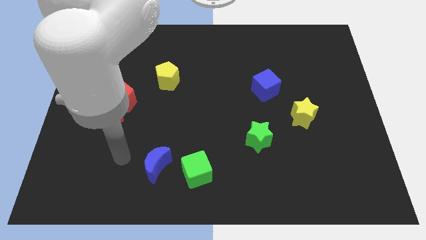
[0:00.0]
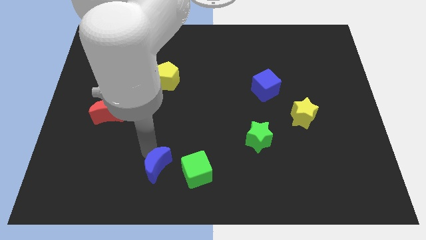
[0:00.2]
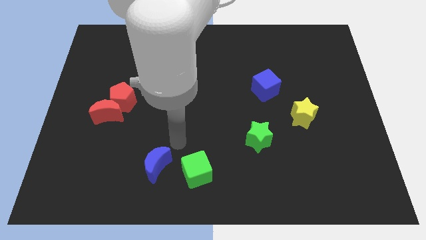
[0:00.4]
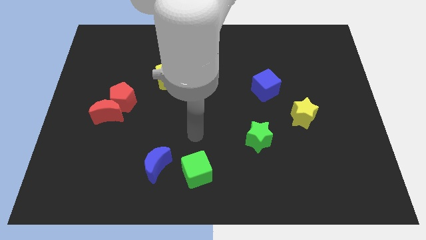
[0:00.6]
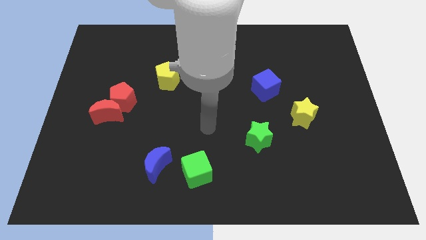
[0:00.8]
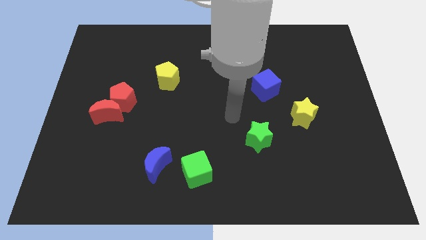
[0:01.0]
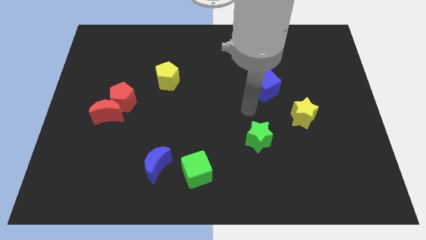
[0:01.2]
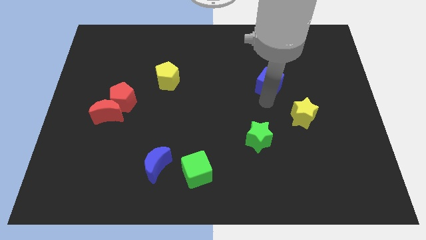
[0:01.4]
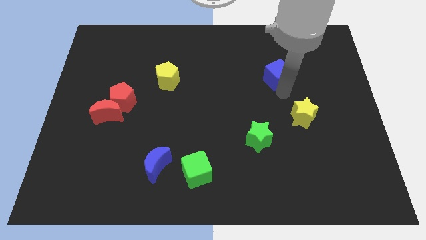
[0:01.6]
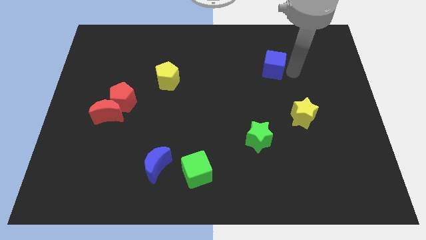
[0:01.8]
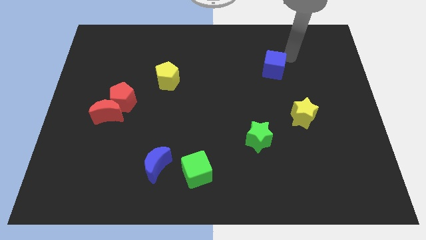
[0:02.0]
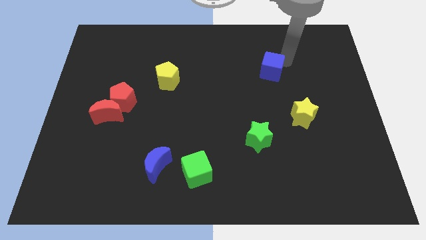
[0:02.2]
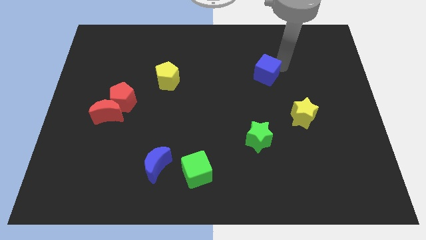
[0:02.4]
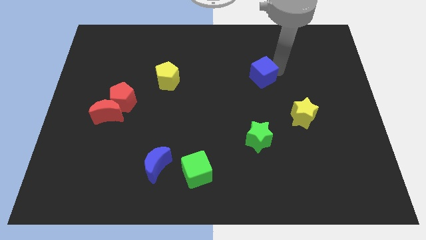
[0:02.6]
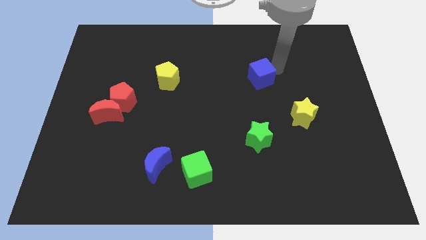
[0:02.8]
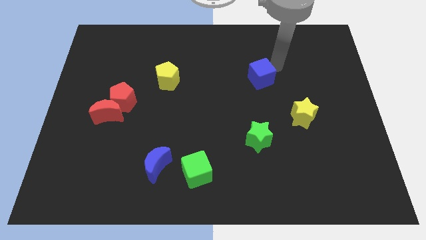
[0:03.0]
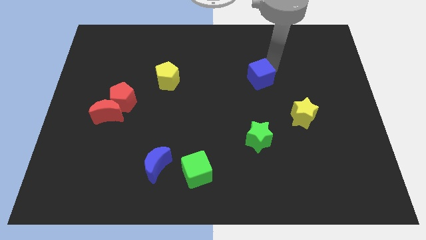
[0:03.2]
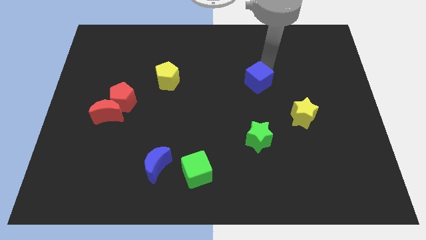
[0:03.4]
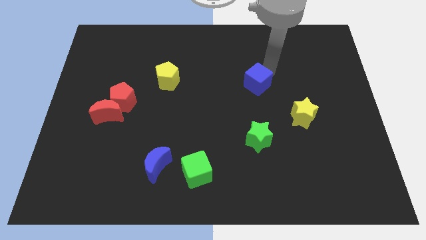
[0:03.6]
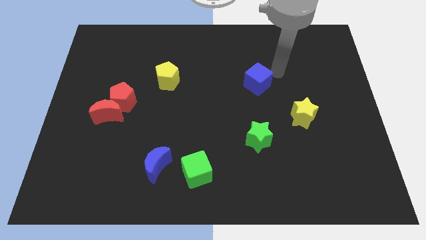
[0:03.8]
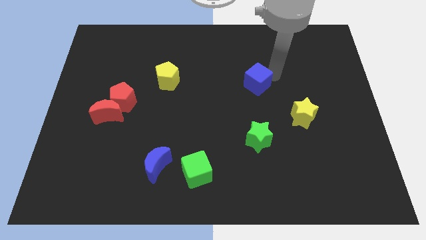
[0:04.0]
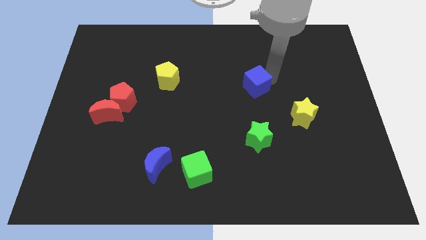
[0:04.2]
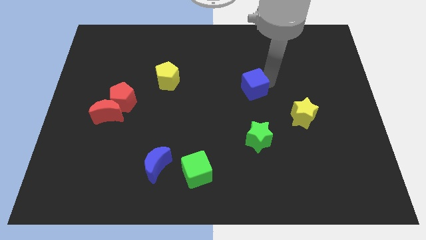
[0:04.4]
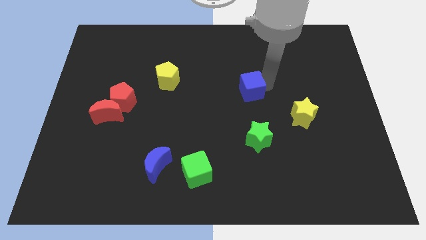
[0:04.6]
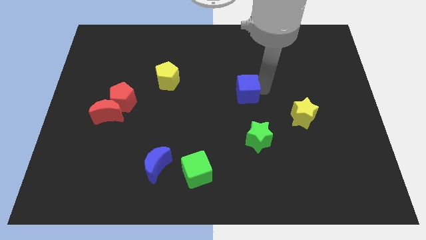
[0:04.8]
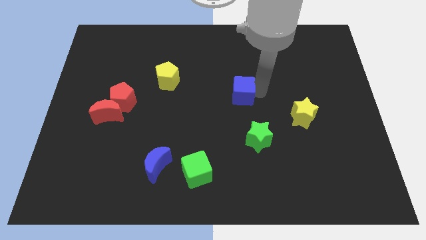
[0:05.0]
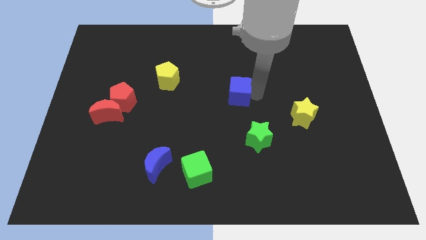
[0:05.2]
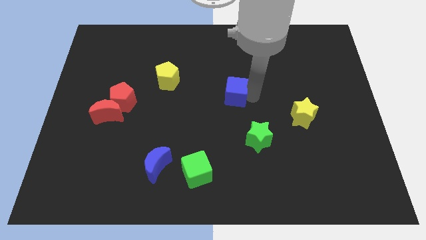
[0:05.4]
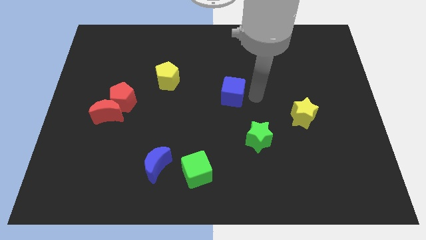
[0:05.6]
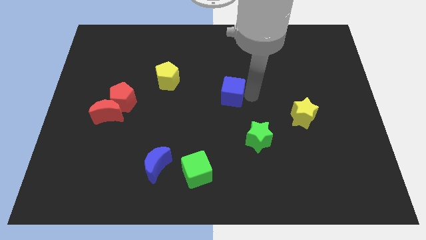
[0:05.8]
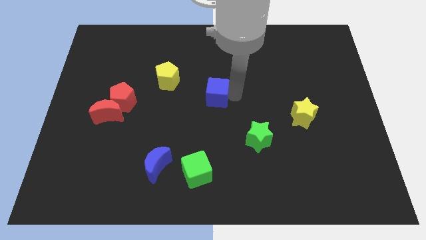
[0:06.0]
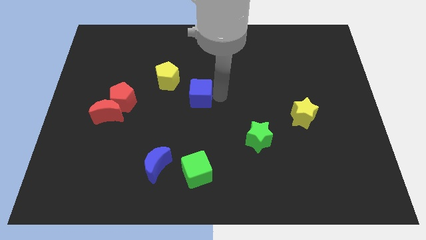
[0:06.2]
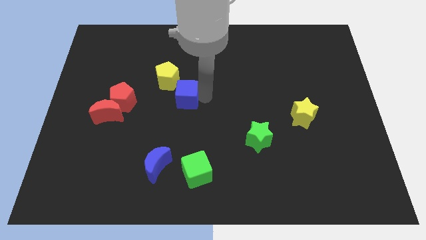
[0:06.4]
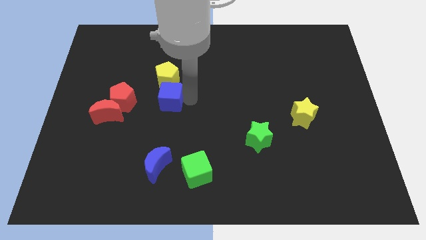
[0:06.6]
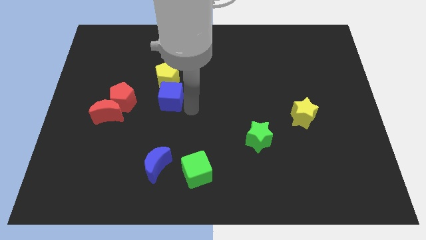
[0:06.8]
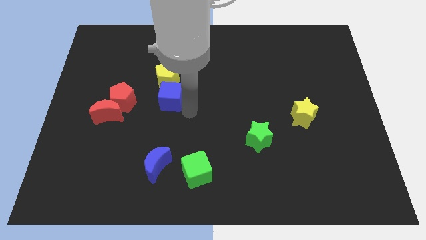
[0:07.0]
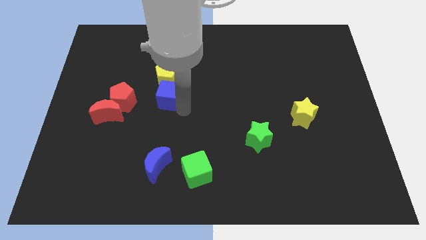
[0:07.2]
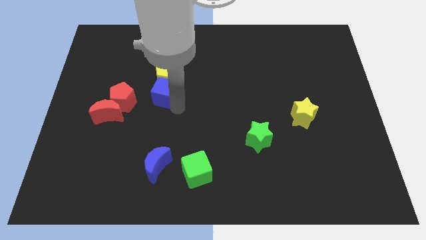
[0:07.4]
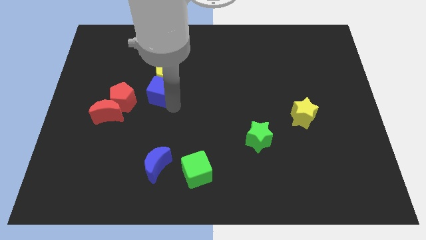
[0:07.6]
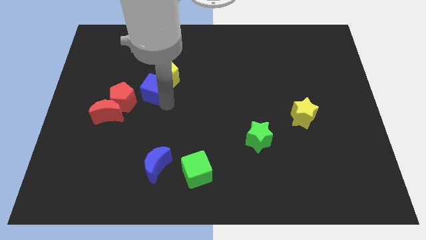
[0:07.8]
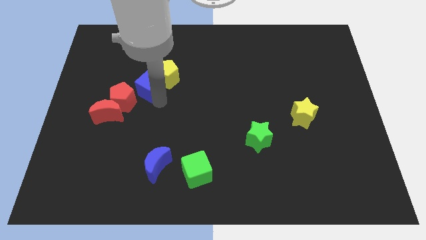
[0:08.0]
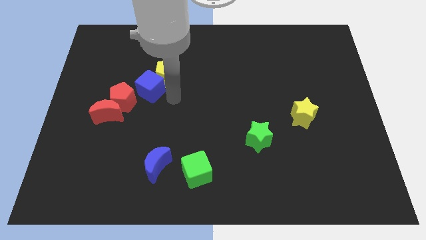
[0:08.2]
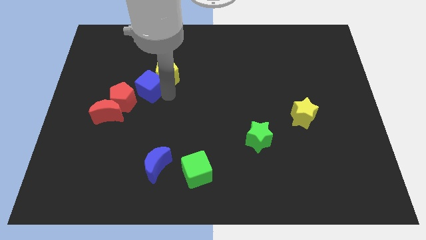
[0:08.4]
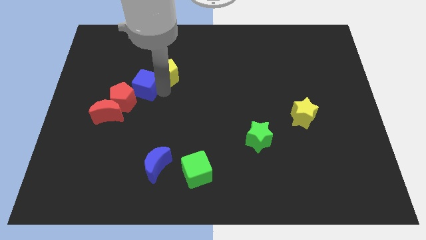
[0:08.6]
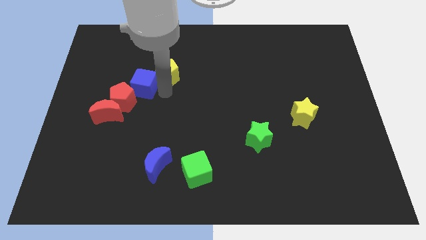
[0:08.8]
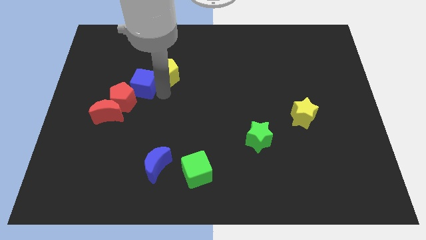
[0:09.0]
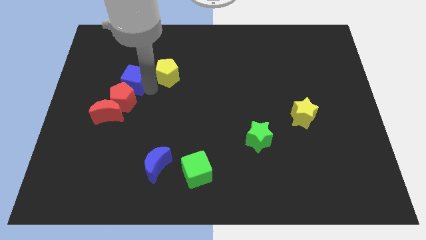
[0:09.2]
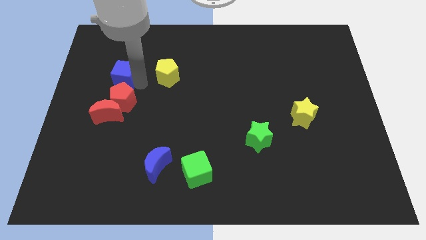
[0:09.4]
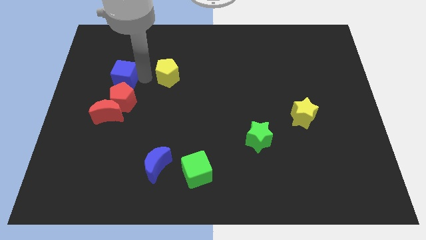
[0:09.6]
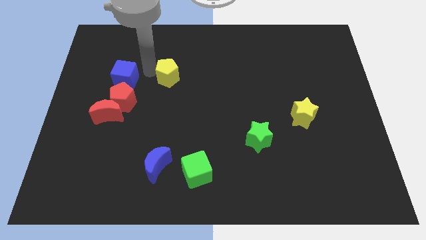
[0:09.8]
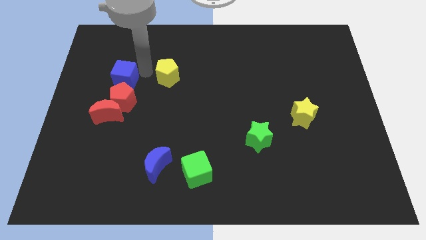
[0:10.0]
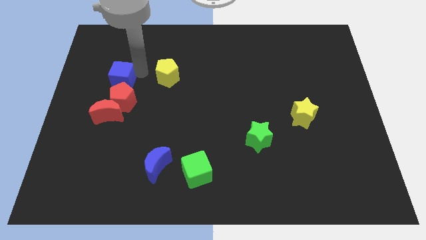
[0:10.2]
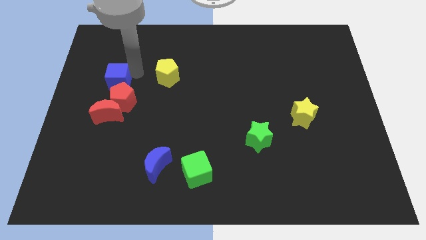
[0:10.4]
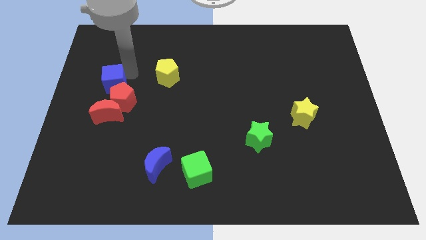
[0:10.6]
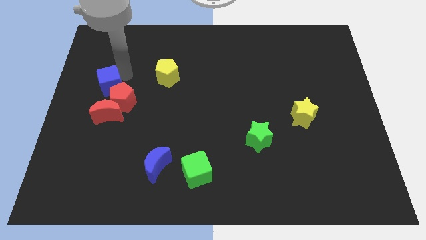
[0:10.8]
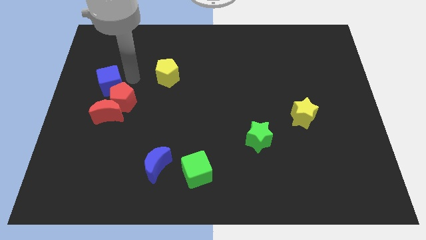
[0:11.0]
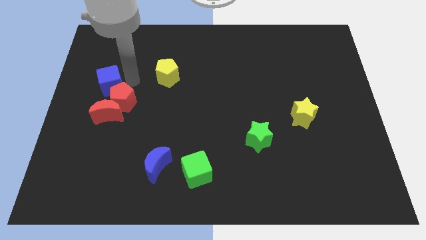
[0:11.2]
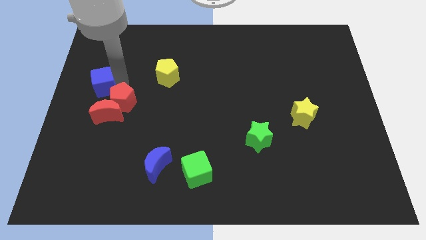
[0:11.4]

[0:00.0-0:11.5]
slide the blue cube to the center left

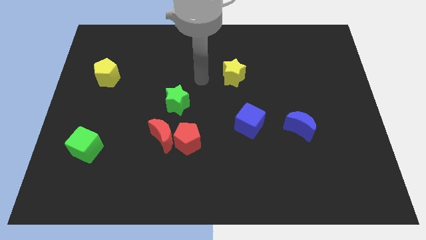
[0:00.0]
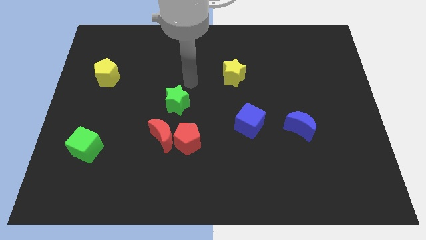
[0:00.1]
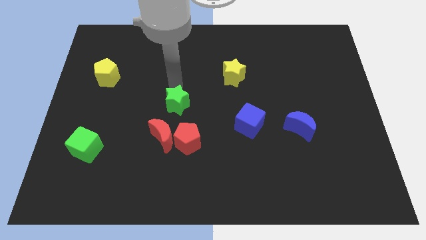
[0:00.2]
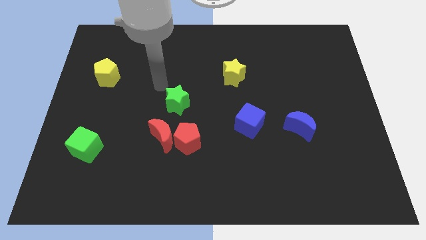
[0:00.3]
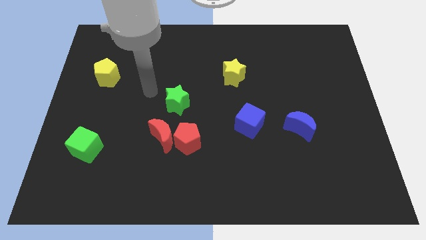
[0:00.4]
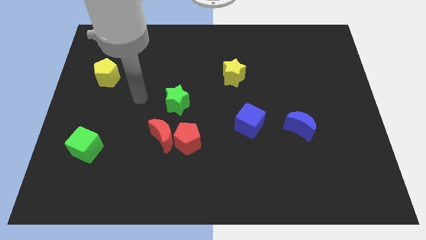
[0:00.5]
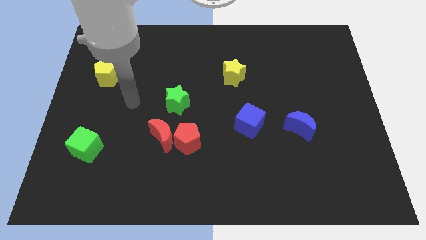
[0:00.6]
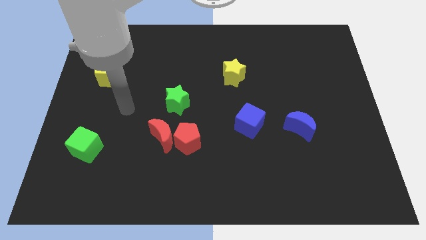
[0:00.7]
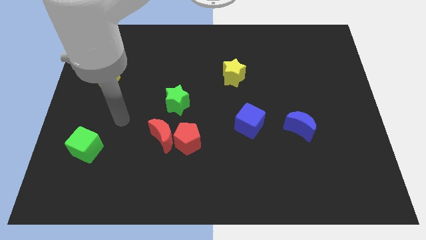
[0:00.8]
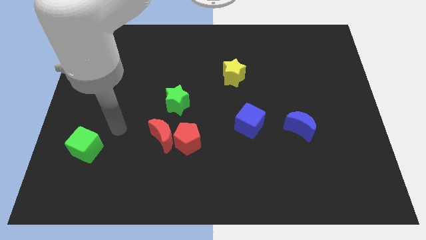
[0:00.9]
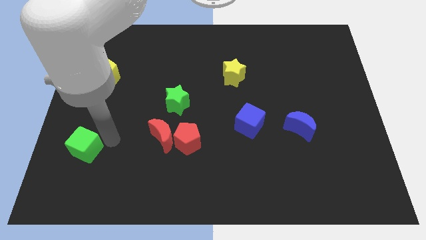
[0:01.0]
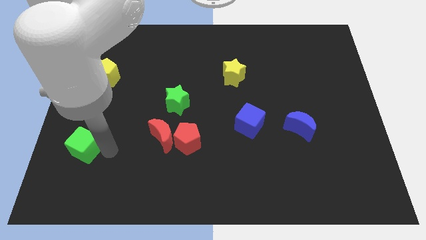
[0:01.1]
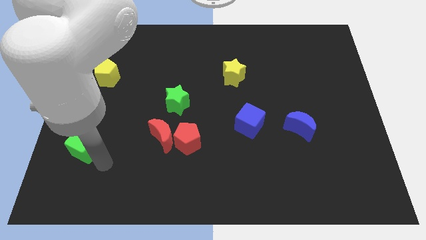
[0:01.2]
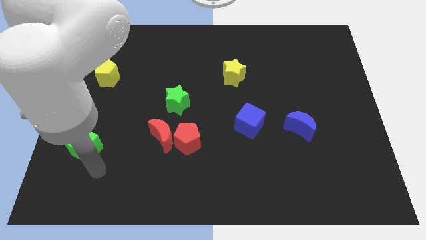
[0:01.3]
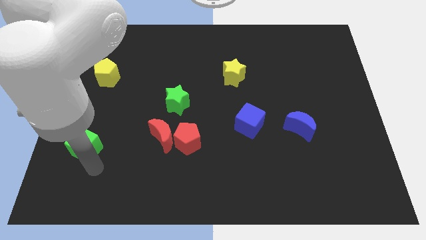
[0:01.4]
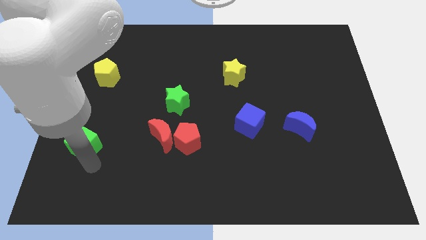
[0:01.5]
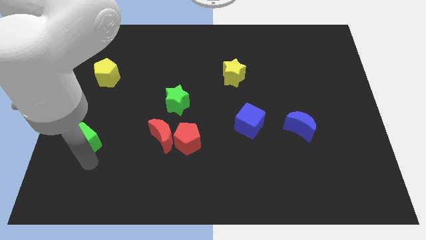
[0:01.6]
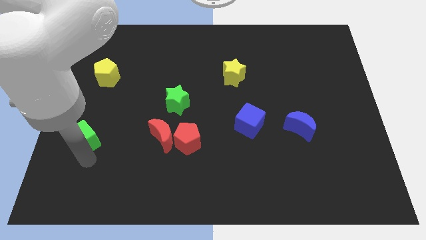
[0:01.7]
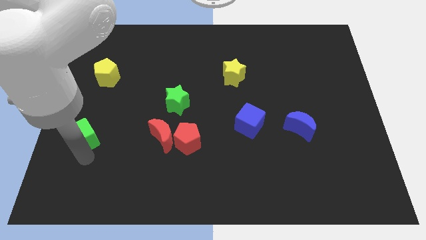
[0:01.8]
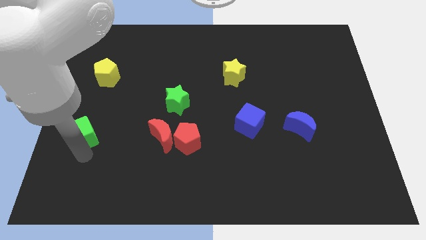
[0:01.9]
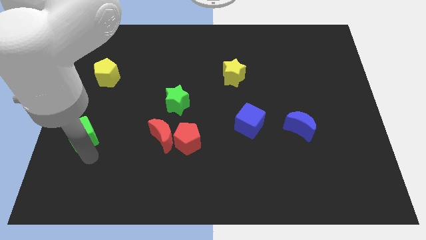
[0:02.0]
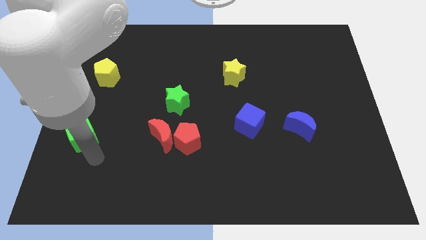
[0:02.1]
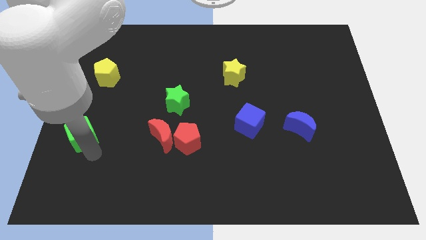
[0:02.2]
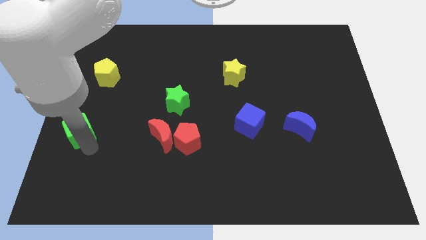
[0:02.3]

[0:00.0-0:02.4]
slide the green cube to the left side of the board
